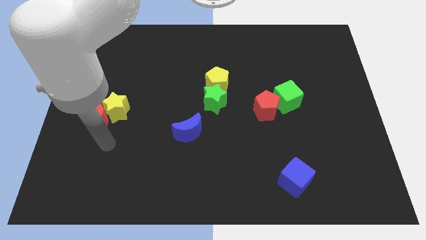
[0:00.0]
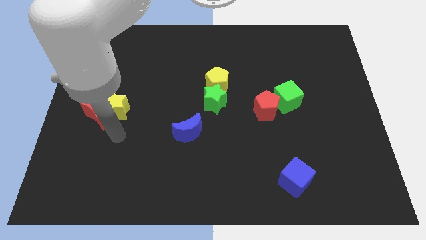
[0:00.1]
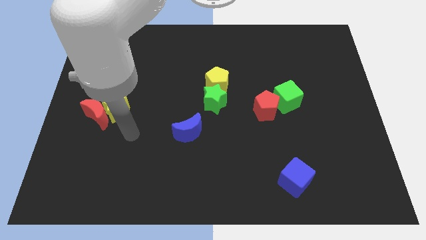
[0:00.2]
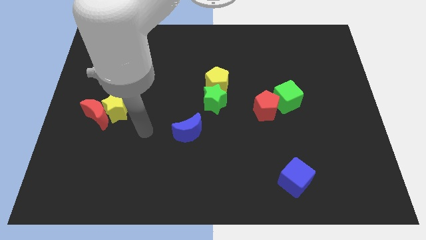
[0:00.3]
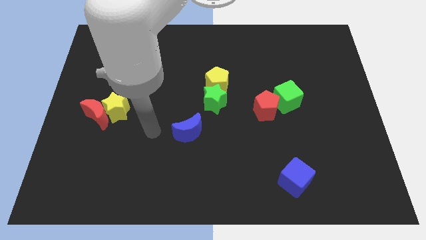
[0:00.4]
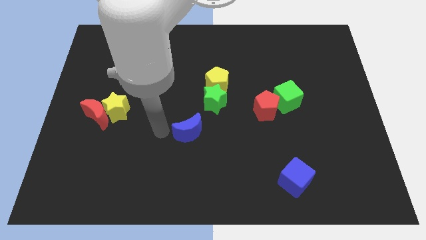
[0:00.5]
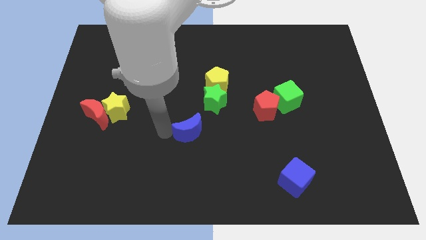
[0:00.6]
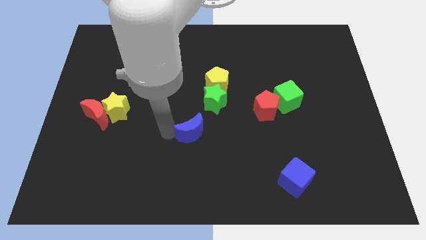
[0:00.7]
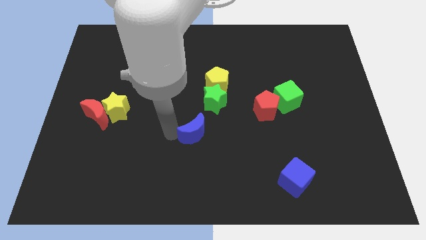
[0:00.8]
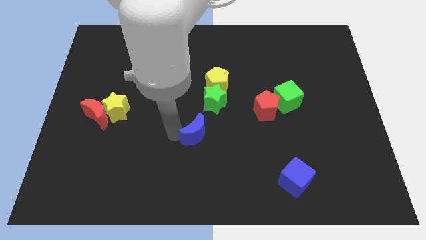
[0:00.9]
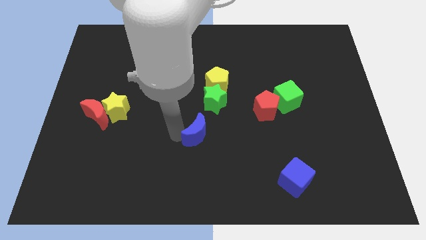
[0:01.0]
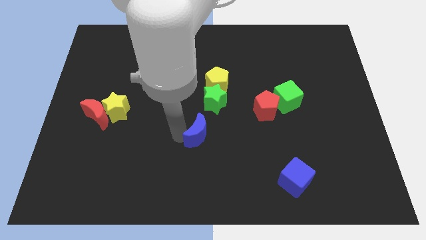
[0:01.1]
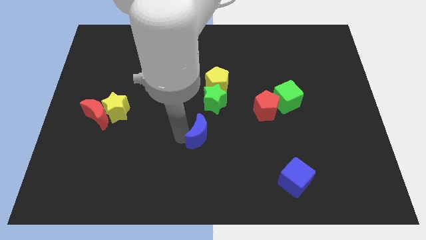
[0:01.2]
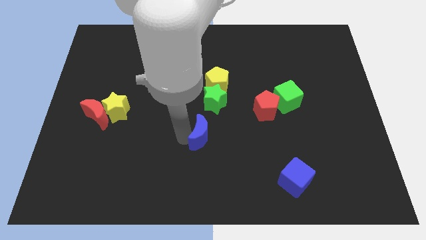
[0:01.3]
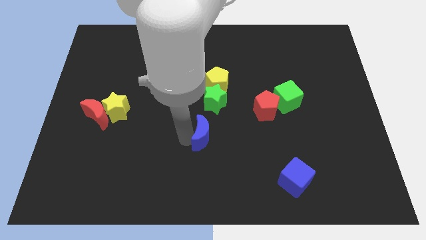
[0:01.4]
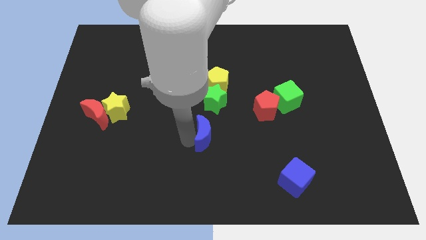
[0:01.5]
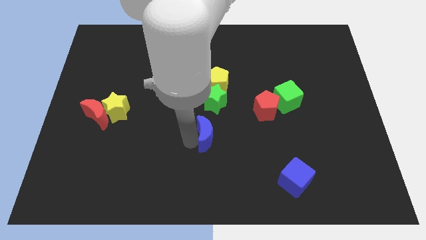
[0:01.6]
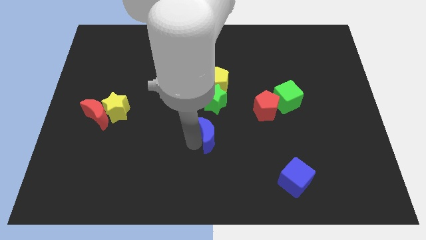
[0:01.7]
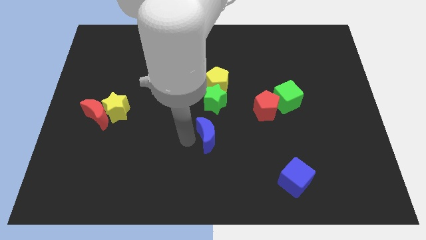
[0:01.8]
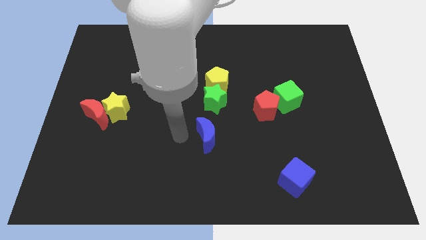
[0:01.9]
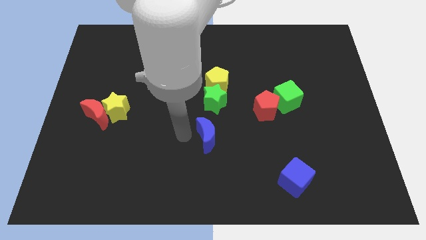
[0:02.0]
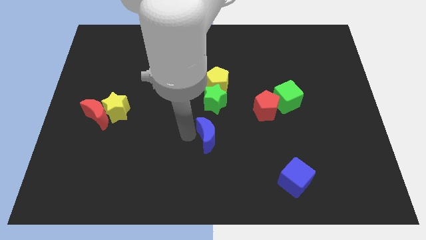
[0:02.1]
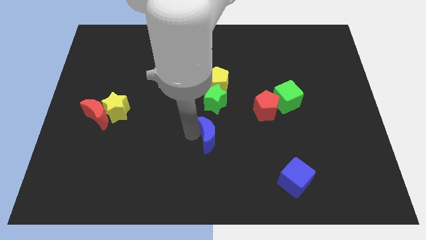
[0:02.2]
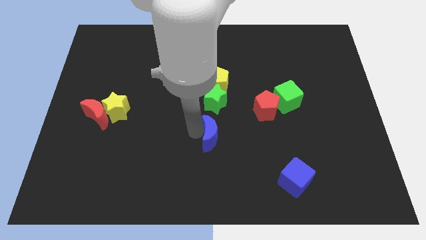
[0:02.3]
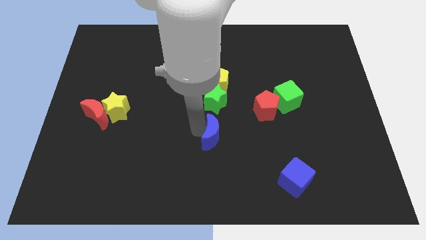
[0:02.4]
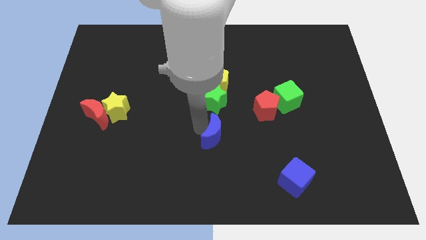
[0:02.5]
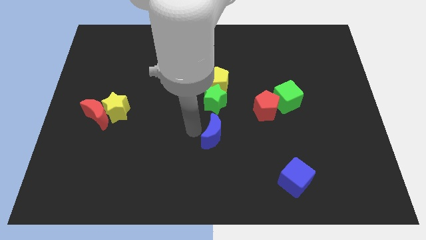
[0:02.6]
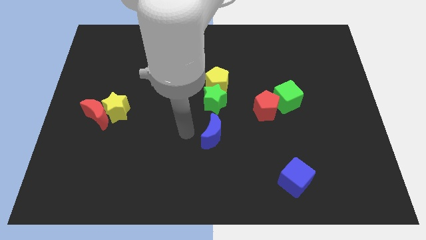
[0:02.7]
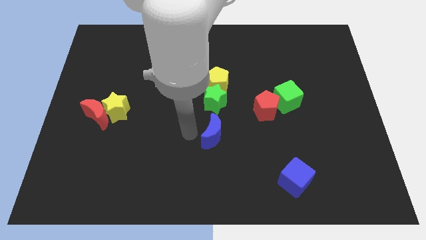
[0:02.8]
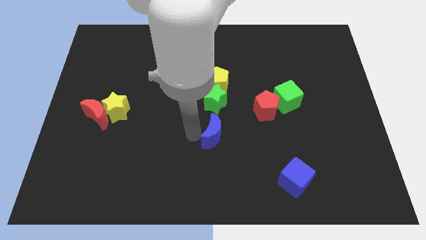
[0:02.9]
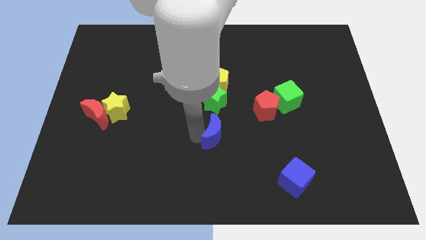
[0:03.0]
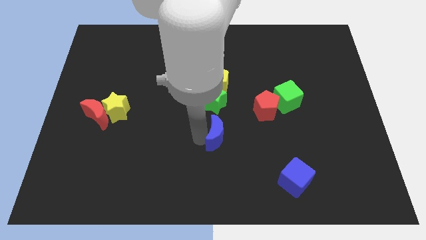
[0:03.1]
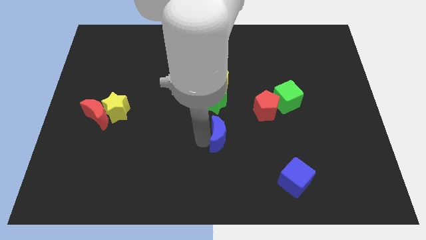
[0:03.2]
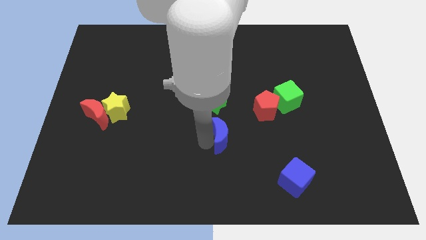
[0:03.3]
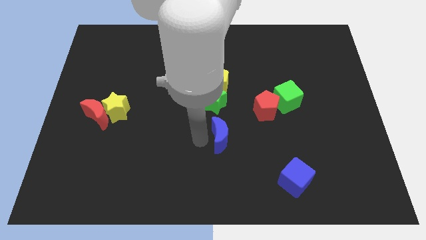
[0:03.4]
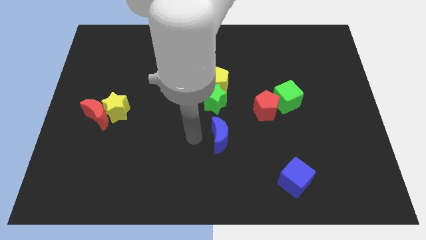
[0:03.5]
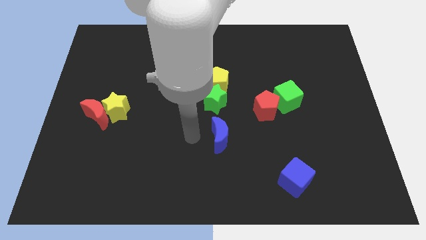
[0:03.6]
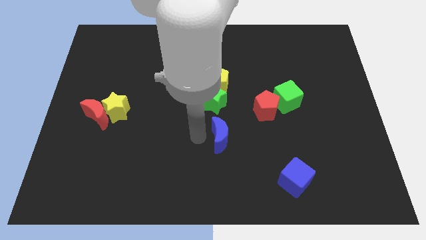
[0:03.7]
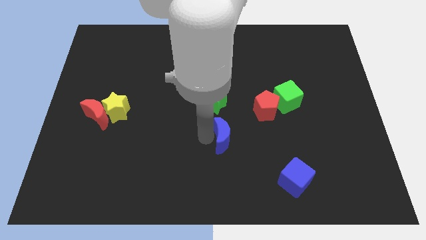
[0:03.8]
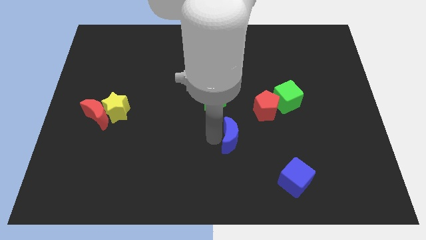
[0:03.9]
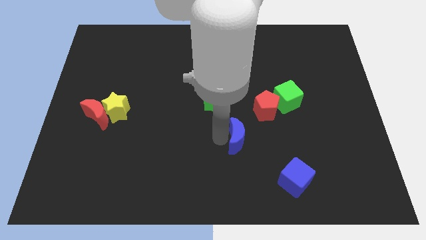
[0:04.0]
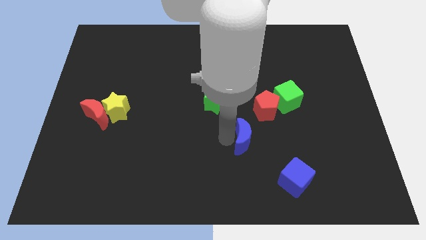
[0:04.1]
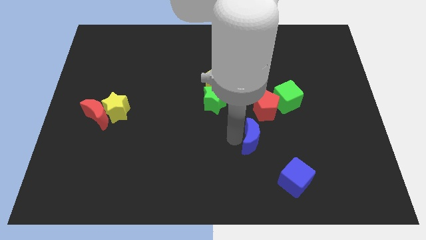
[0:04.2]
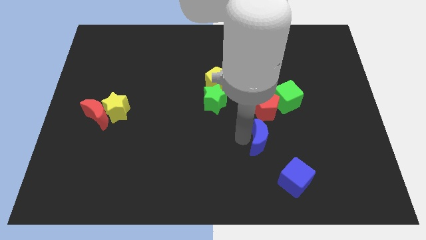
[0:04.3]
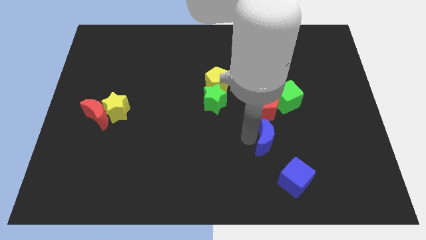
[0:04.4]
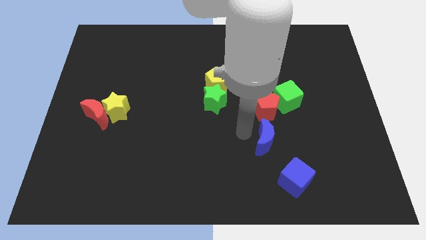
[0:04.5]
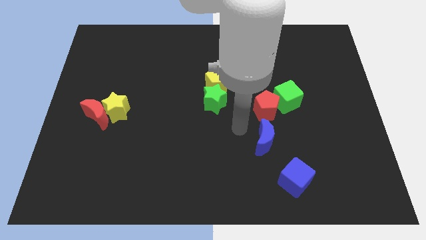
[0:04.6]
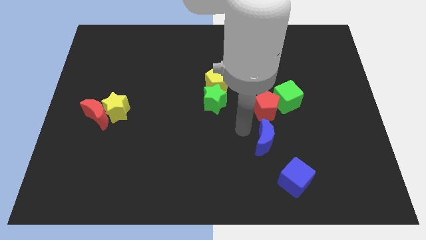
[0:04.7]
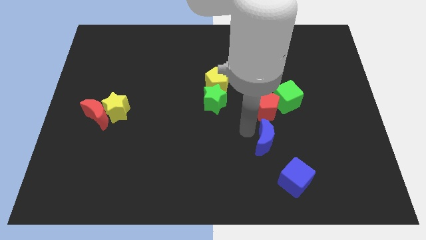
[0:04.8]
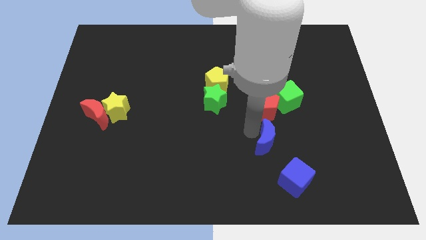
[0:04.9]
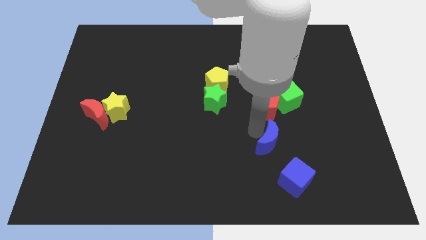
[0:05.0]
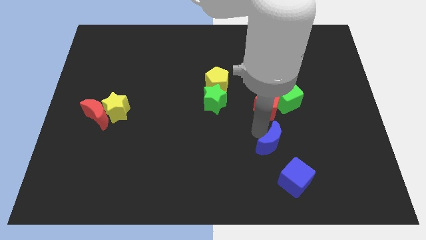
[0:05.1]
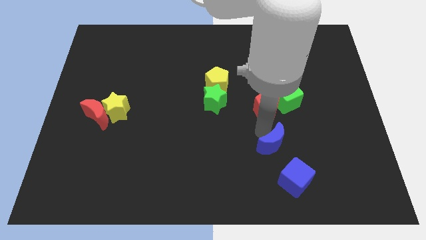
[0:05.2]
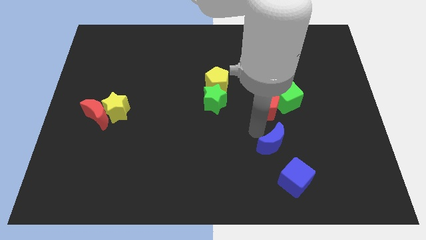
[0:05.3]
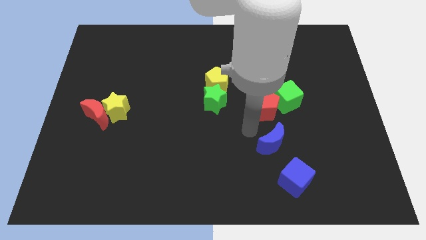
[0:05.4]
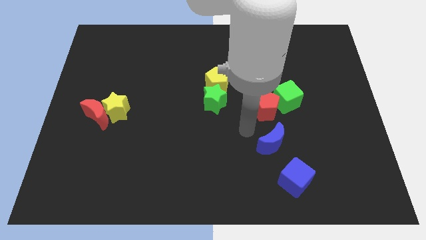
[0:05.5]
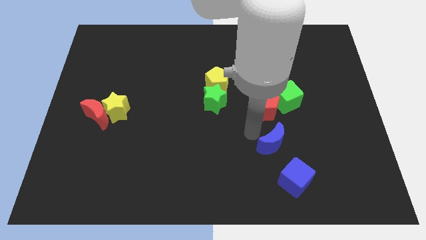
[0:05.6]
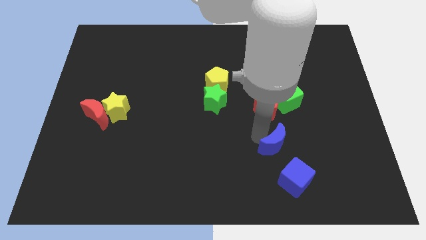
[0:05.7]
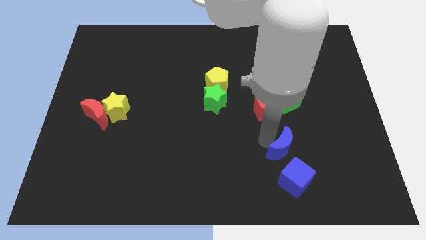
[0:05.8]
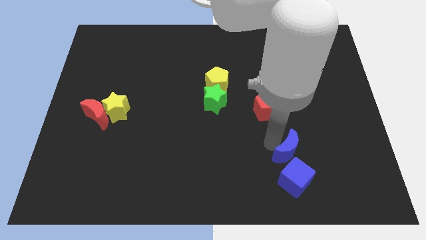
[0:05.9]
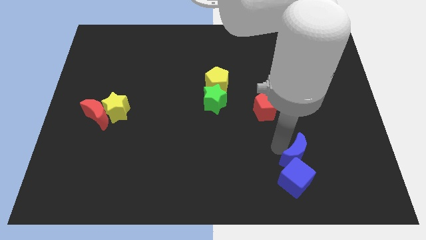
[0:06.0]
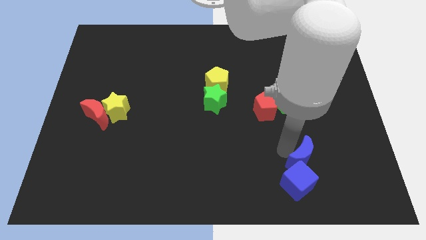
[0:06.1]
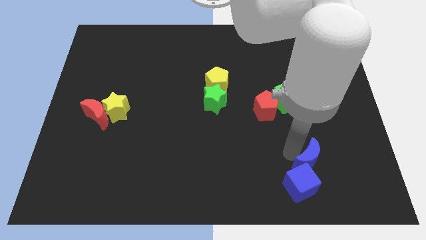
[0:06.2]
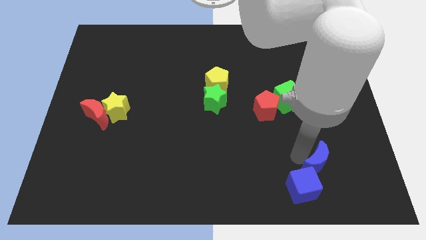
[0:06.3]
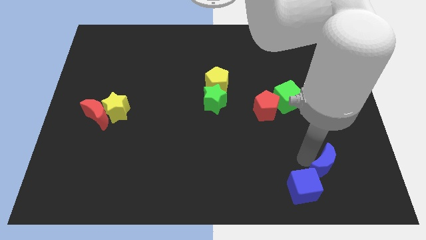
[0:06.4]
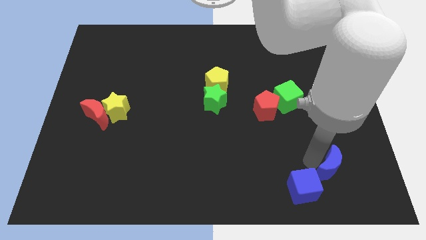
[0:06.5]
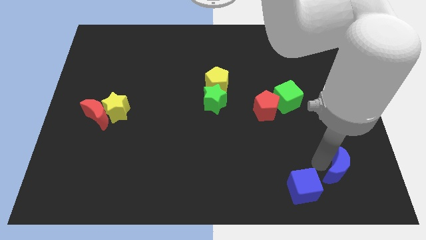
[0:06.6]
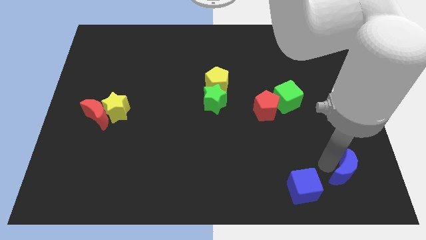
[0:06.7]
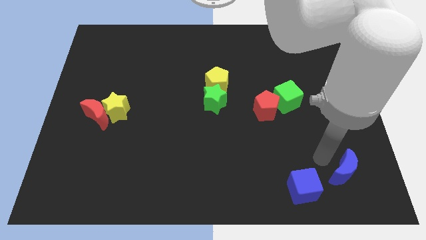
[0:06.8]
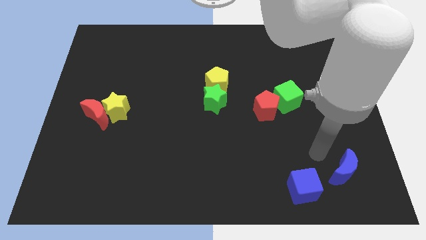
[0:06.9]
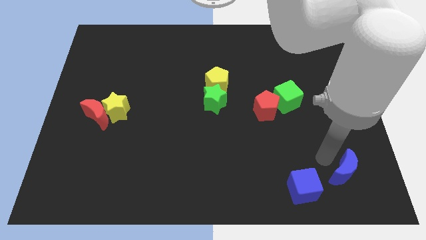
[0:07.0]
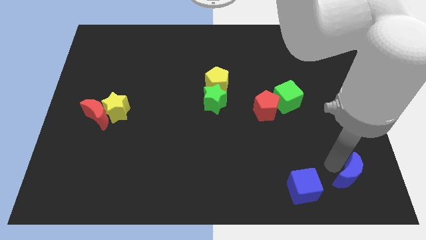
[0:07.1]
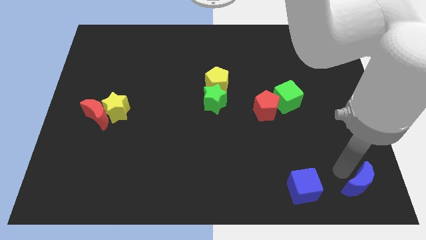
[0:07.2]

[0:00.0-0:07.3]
slide the blue moon to the lower right corner
